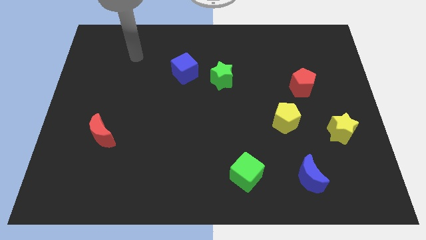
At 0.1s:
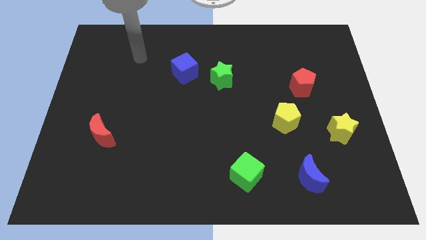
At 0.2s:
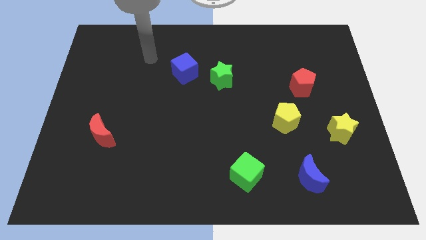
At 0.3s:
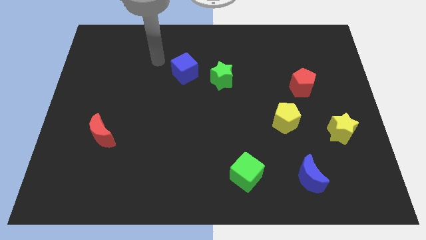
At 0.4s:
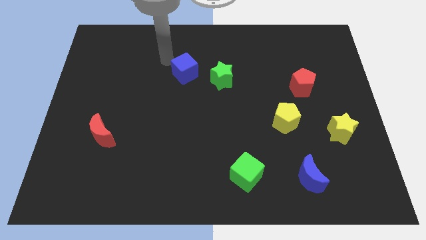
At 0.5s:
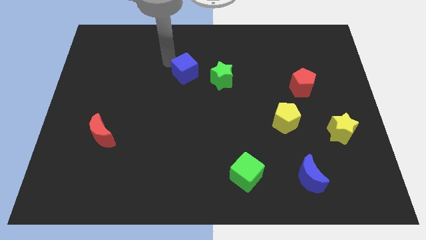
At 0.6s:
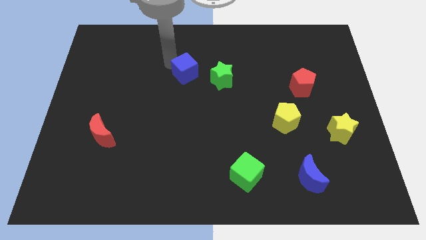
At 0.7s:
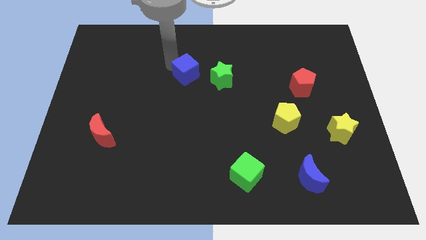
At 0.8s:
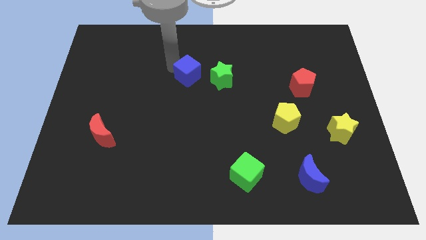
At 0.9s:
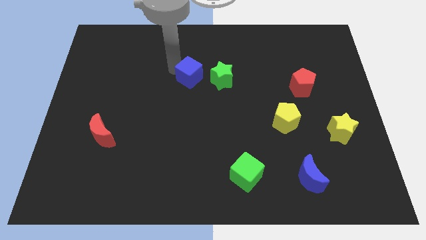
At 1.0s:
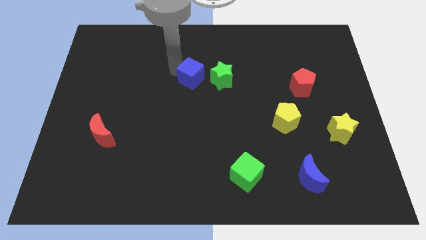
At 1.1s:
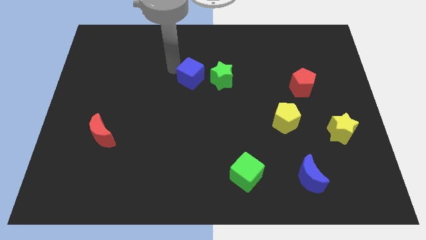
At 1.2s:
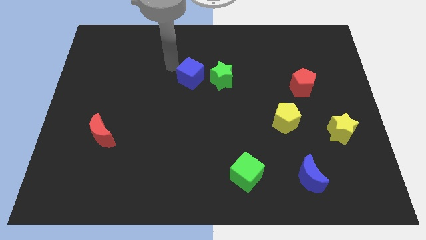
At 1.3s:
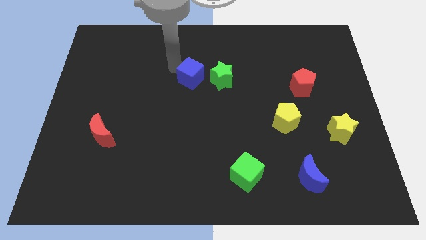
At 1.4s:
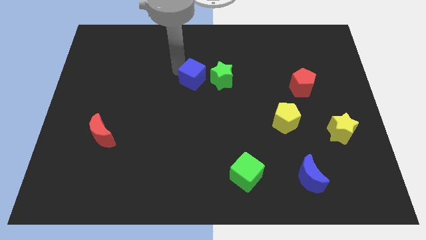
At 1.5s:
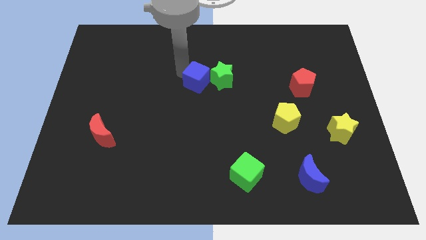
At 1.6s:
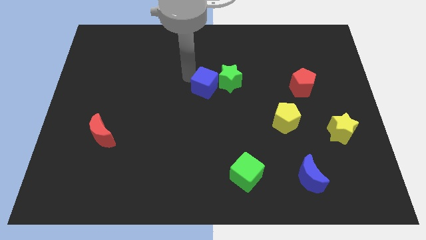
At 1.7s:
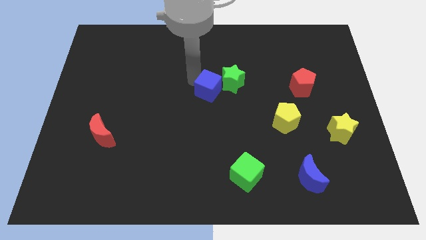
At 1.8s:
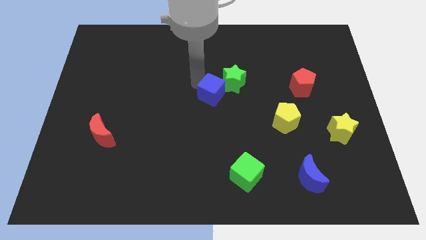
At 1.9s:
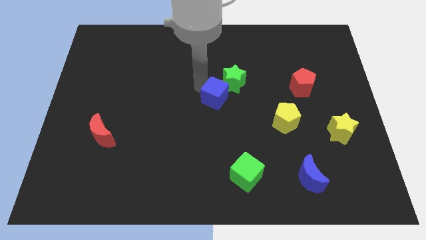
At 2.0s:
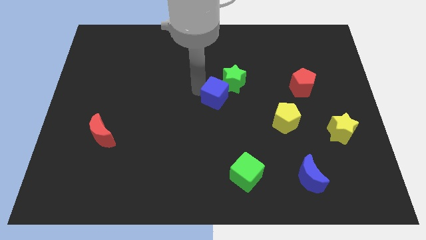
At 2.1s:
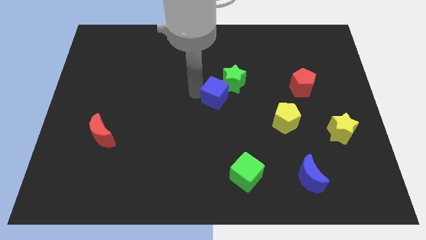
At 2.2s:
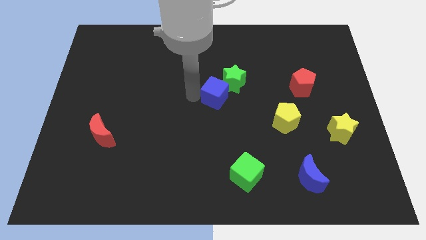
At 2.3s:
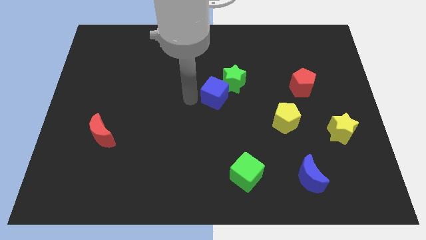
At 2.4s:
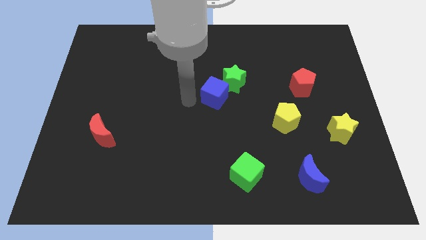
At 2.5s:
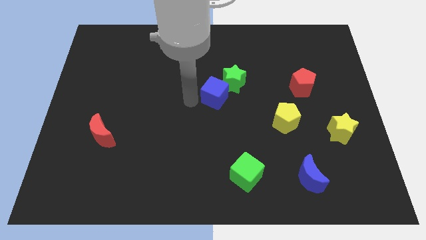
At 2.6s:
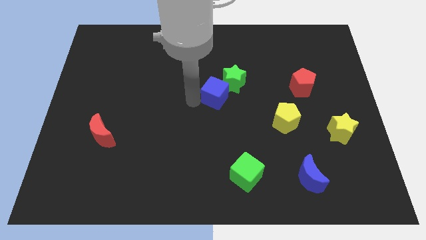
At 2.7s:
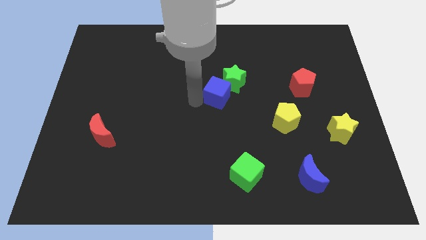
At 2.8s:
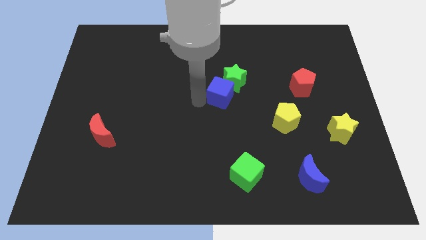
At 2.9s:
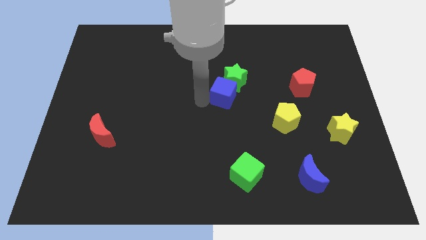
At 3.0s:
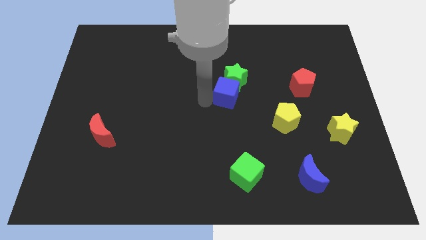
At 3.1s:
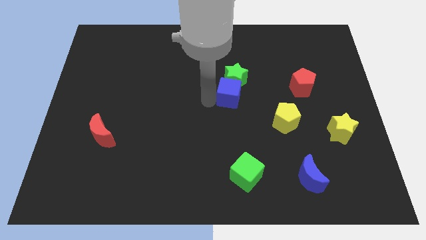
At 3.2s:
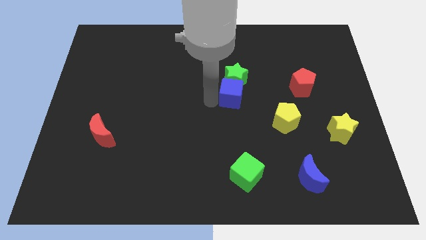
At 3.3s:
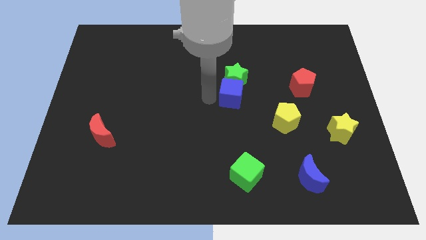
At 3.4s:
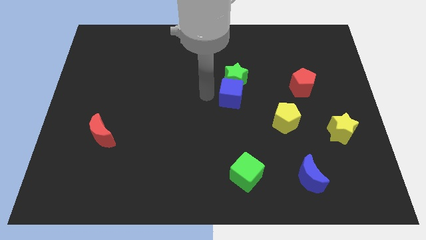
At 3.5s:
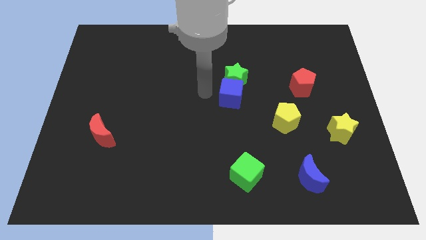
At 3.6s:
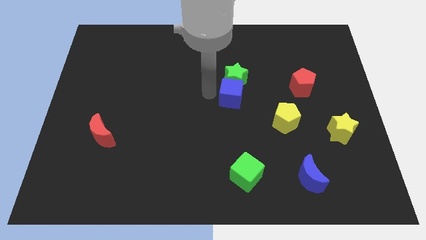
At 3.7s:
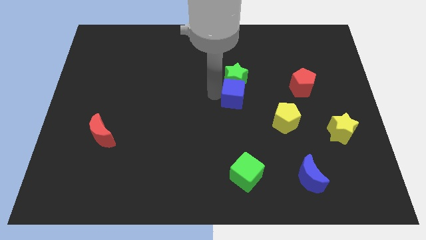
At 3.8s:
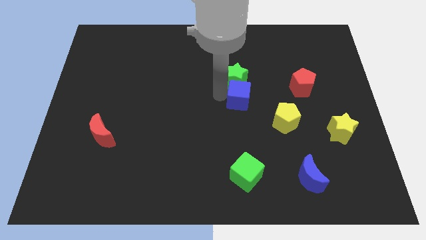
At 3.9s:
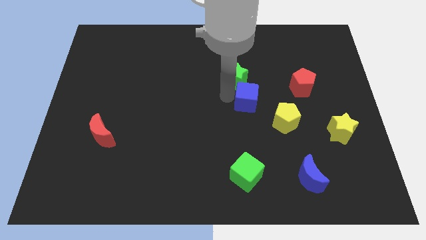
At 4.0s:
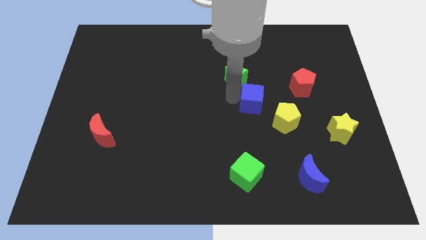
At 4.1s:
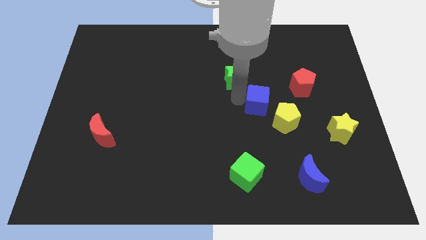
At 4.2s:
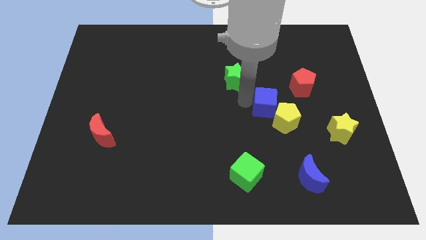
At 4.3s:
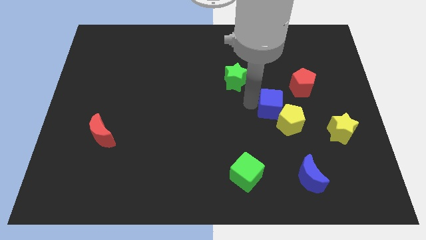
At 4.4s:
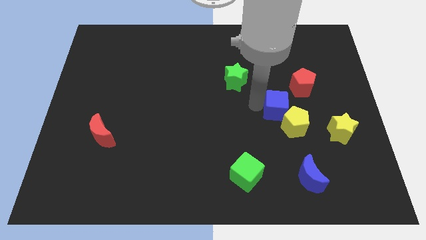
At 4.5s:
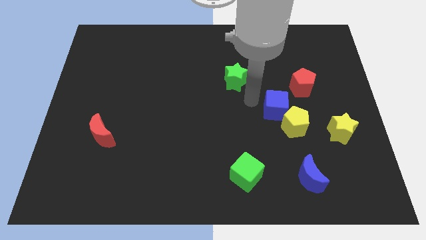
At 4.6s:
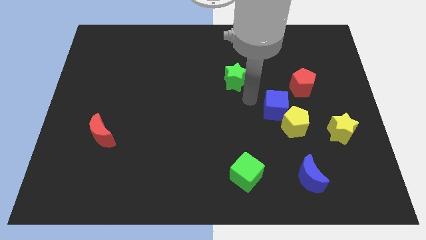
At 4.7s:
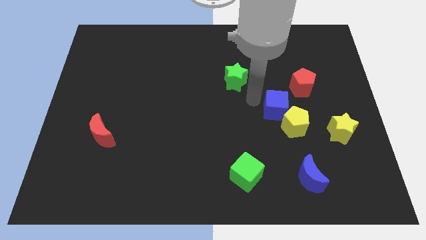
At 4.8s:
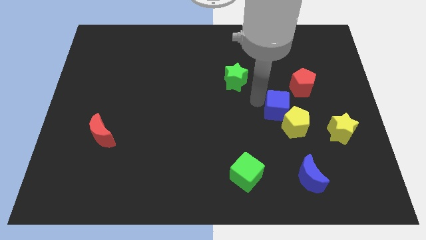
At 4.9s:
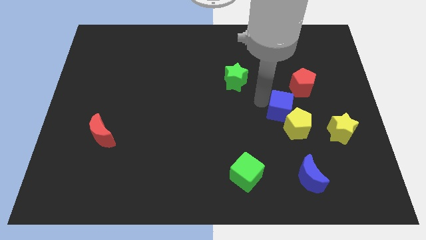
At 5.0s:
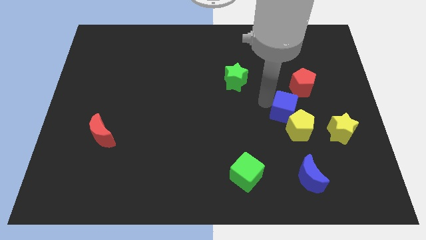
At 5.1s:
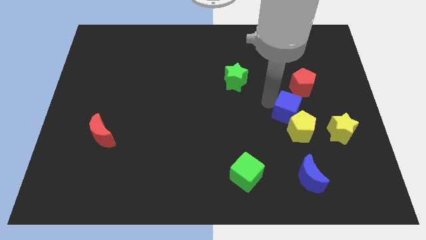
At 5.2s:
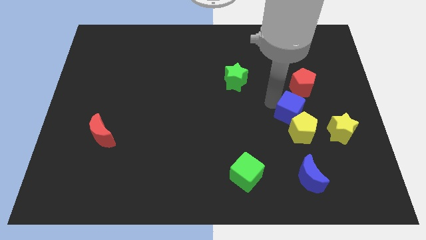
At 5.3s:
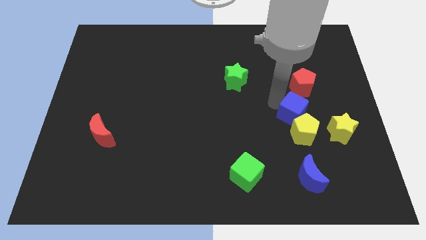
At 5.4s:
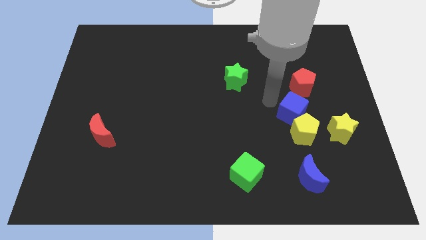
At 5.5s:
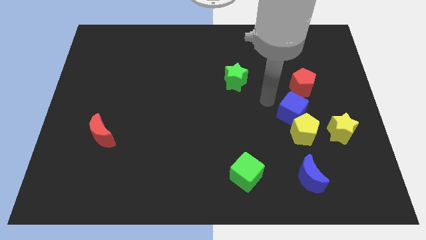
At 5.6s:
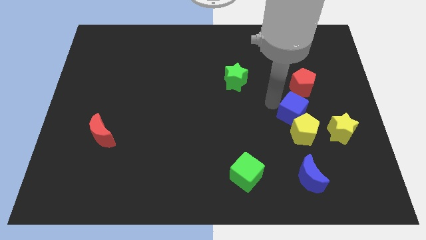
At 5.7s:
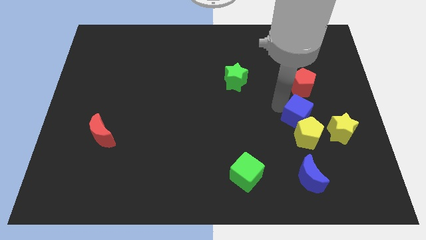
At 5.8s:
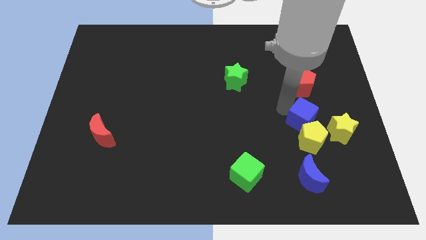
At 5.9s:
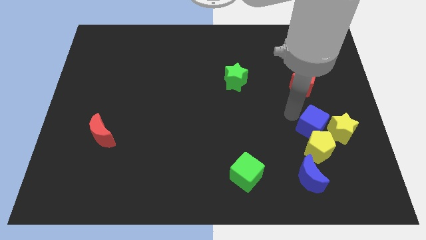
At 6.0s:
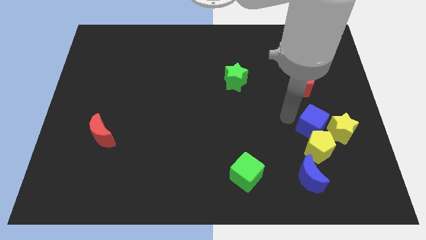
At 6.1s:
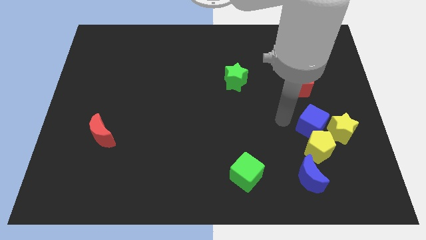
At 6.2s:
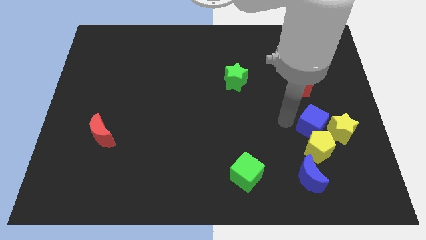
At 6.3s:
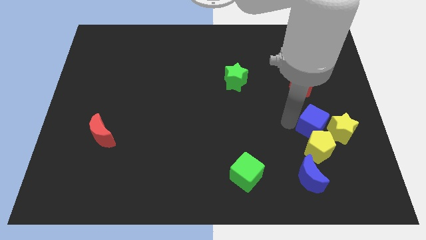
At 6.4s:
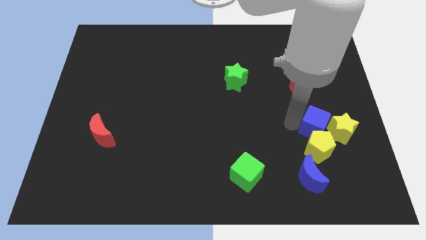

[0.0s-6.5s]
put the blue cube towards the yellow star

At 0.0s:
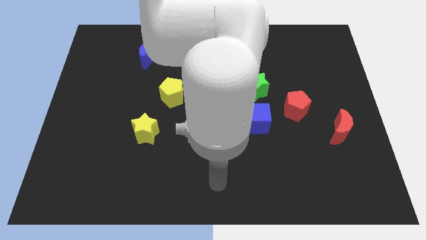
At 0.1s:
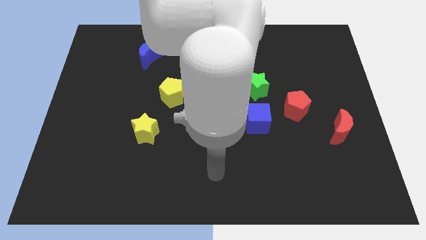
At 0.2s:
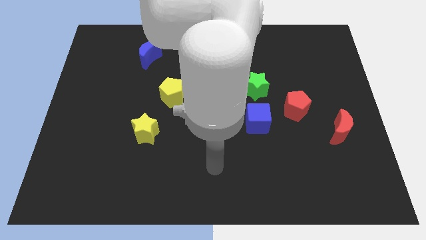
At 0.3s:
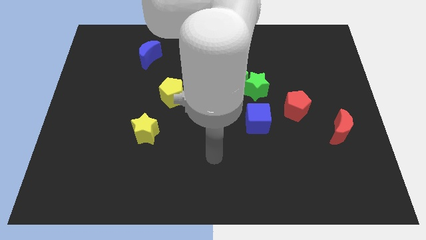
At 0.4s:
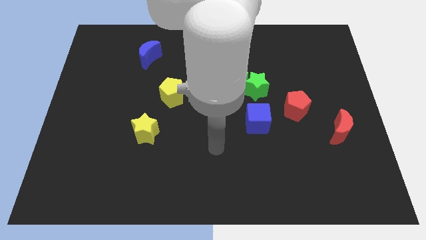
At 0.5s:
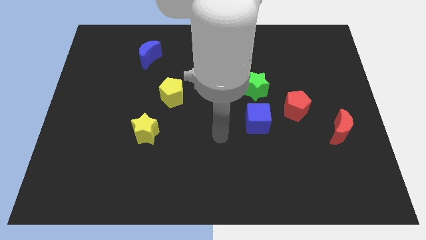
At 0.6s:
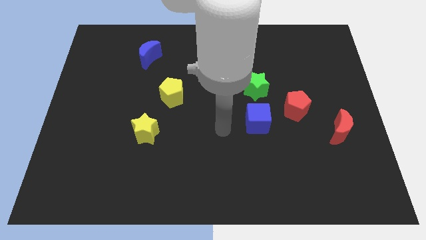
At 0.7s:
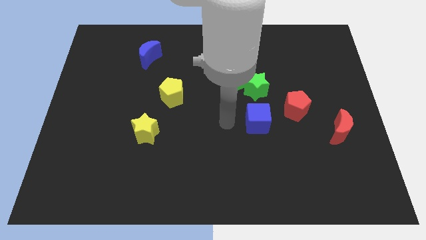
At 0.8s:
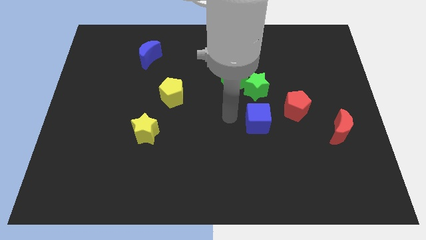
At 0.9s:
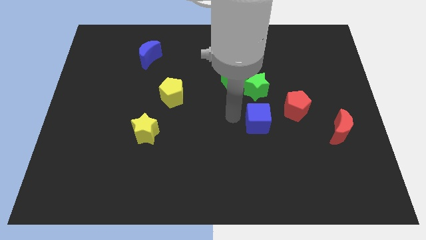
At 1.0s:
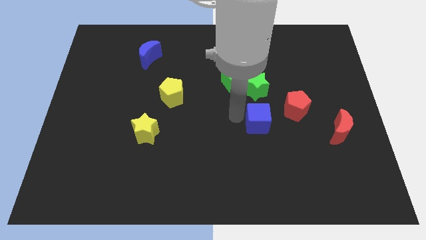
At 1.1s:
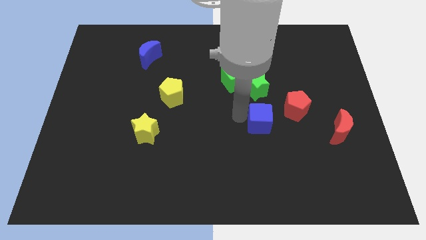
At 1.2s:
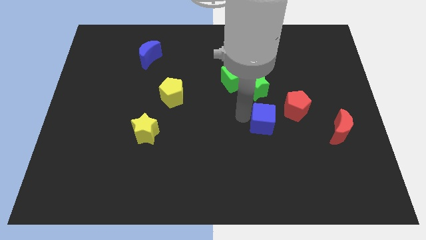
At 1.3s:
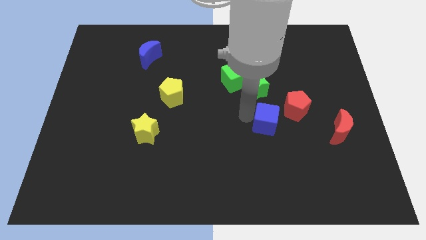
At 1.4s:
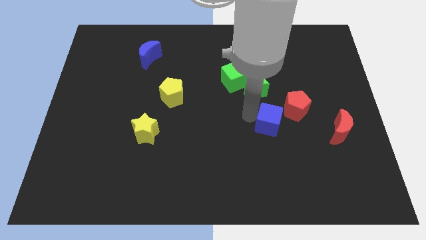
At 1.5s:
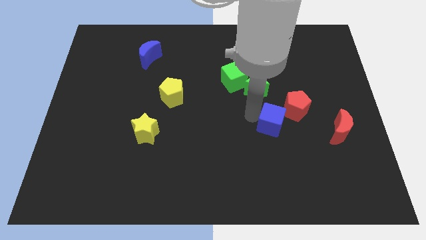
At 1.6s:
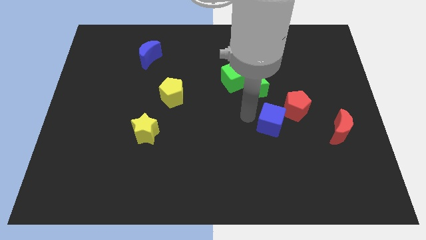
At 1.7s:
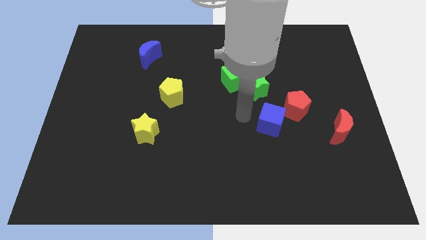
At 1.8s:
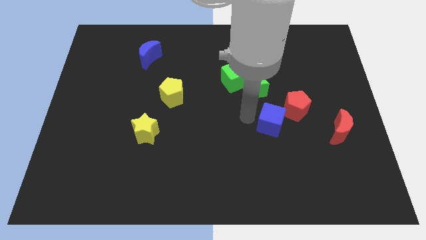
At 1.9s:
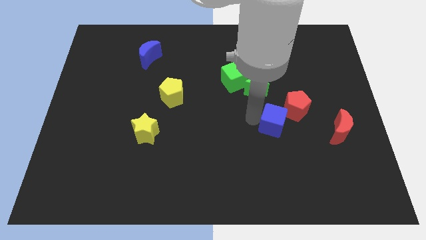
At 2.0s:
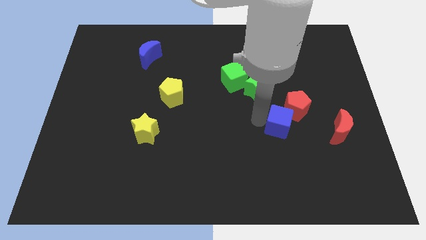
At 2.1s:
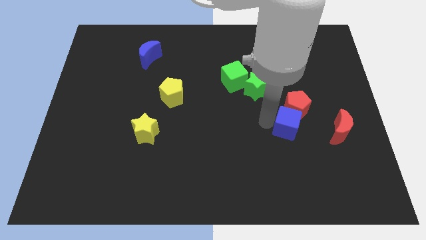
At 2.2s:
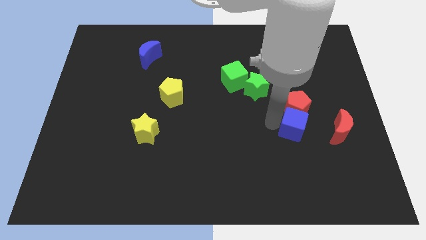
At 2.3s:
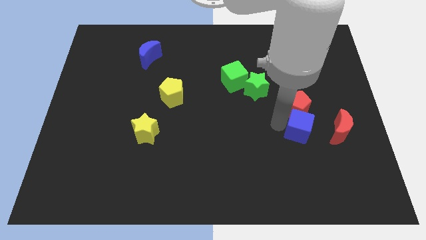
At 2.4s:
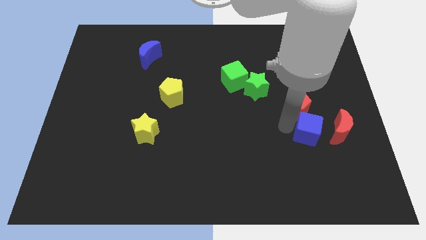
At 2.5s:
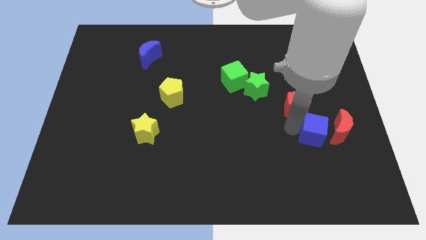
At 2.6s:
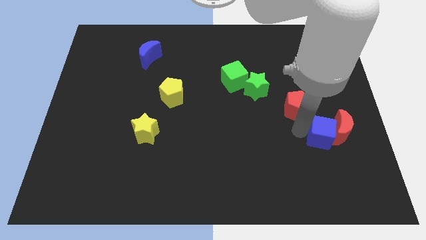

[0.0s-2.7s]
slide the blue cube towards the red moon
